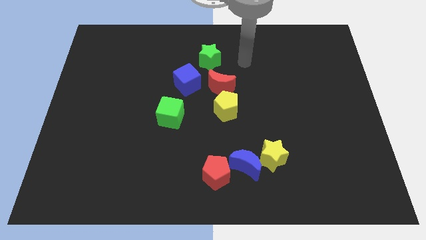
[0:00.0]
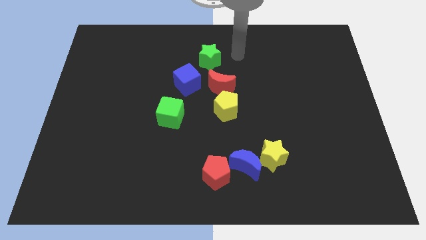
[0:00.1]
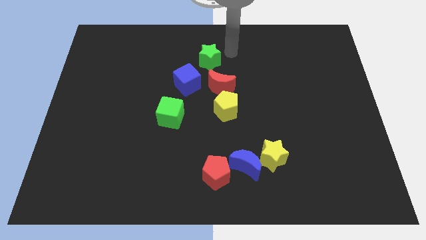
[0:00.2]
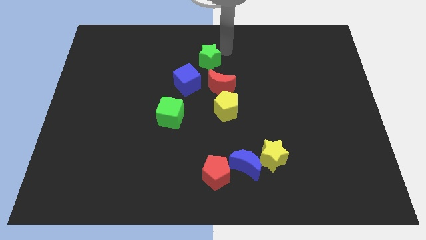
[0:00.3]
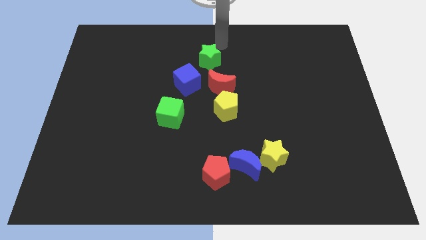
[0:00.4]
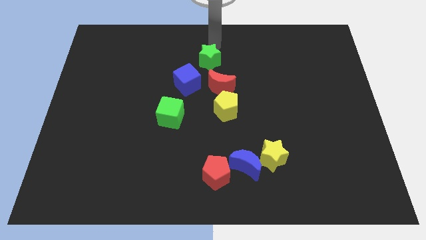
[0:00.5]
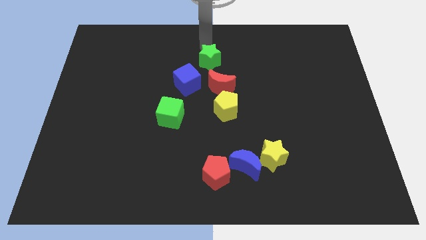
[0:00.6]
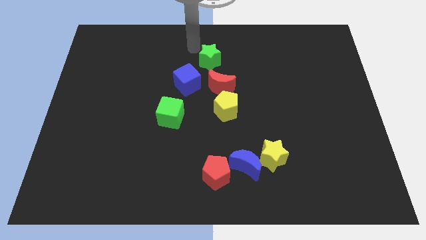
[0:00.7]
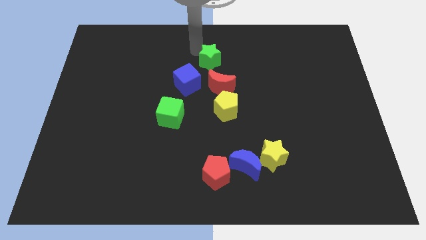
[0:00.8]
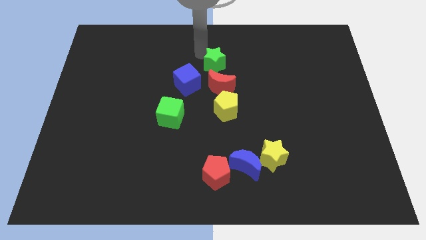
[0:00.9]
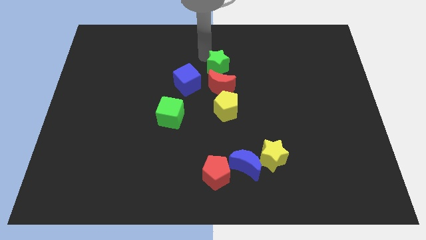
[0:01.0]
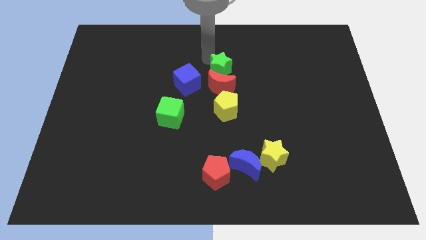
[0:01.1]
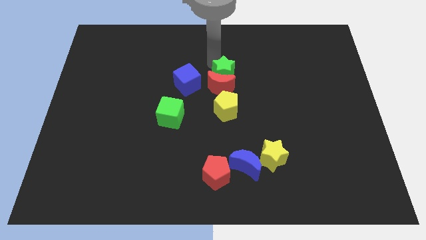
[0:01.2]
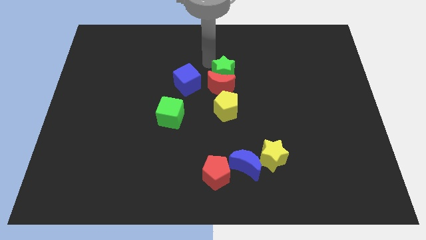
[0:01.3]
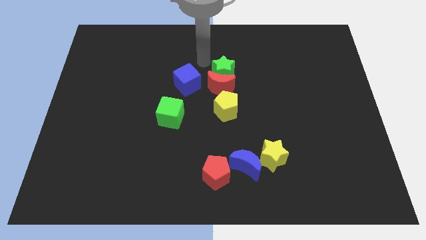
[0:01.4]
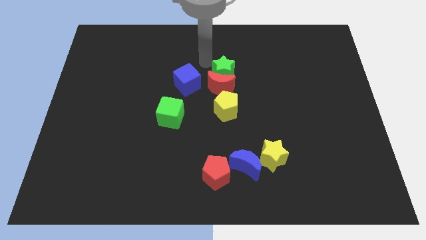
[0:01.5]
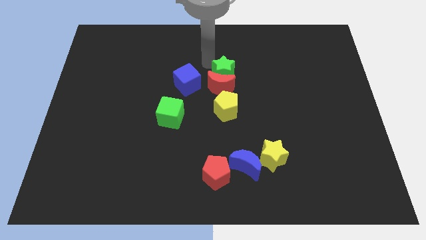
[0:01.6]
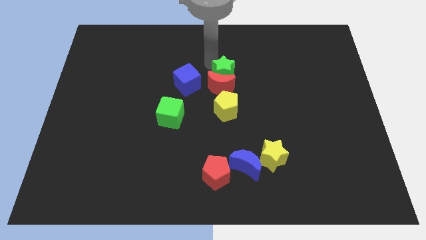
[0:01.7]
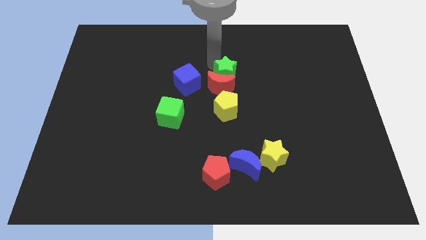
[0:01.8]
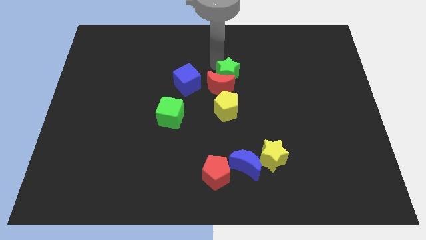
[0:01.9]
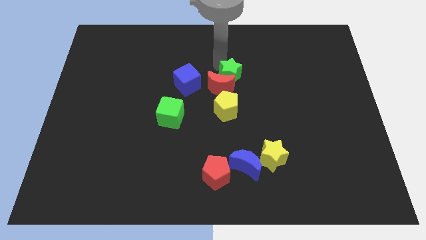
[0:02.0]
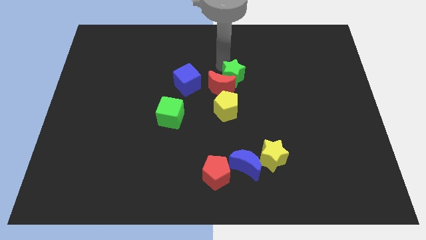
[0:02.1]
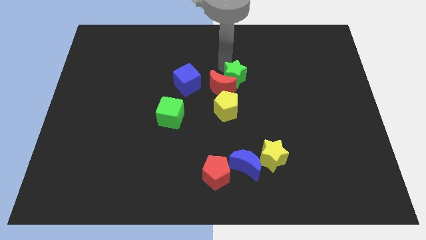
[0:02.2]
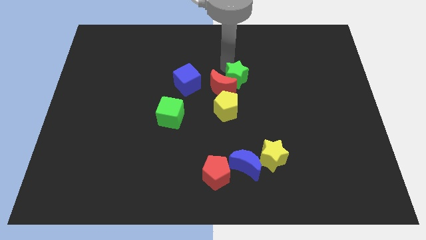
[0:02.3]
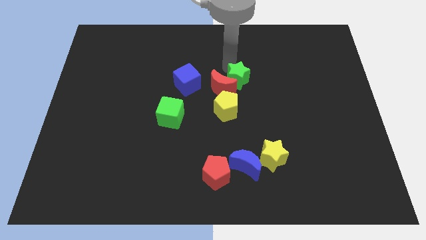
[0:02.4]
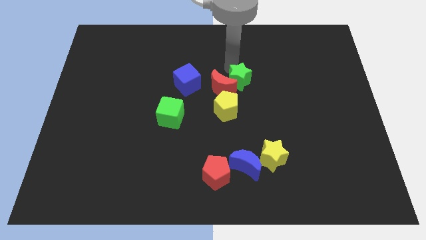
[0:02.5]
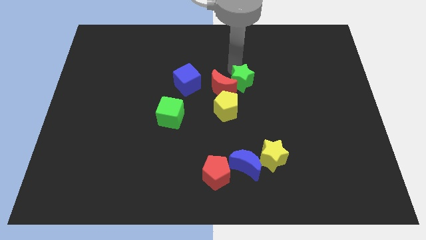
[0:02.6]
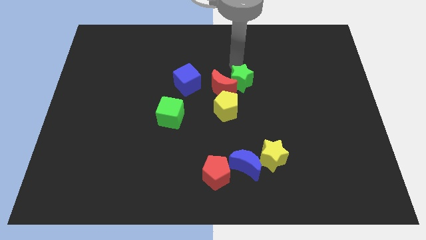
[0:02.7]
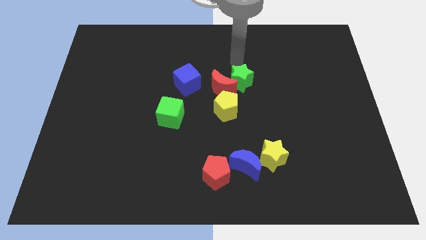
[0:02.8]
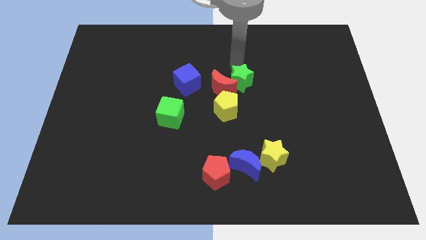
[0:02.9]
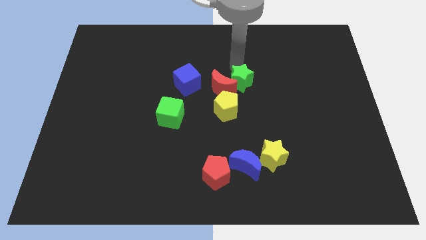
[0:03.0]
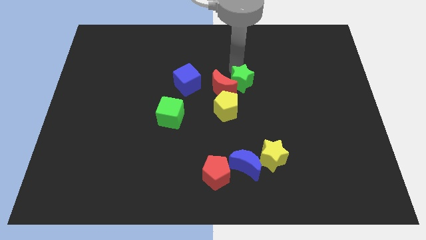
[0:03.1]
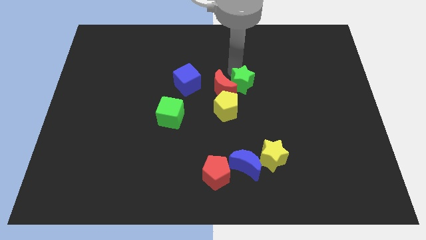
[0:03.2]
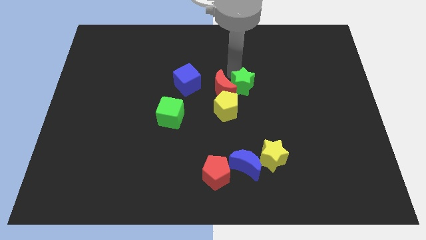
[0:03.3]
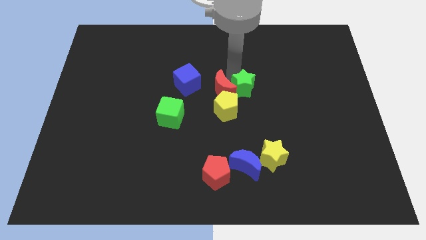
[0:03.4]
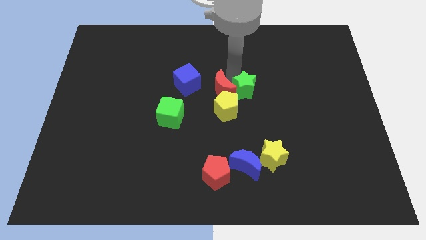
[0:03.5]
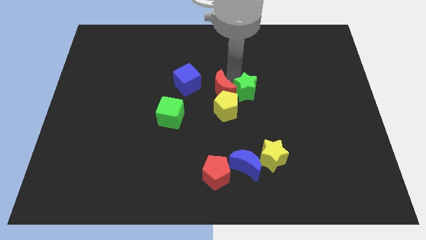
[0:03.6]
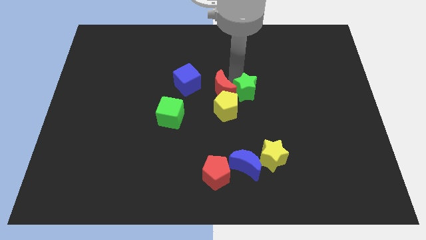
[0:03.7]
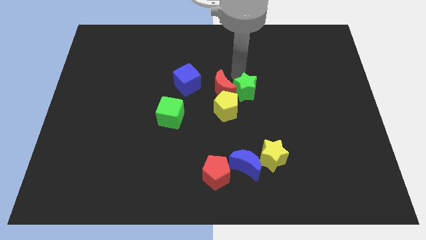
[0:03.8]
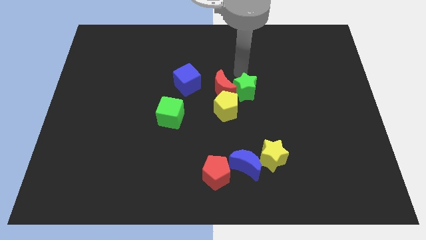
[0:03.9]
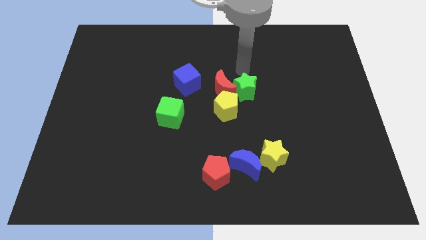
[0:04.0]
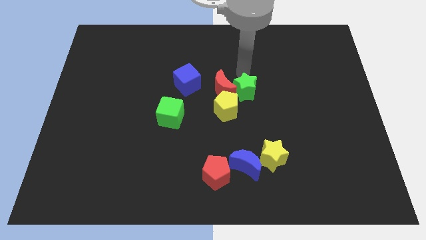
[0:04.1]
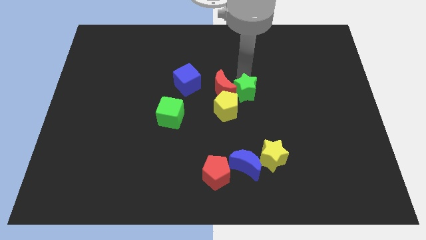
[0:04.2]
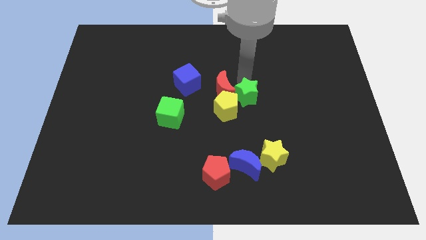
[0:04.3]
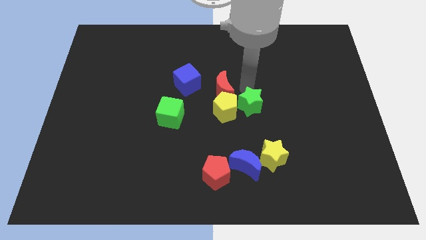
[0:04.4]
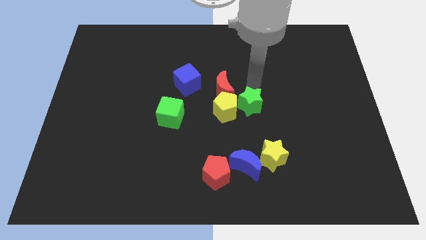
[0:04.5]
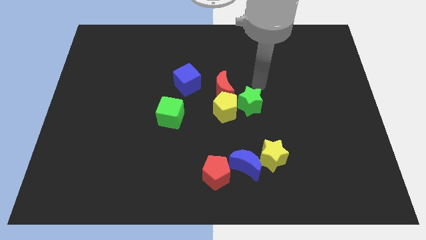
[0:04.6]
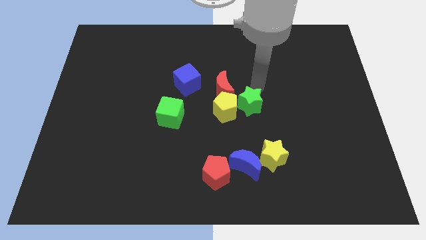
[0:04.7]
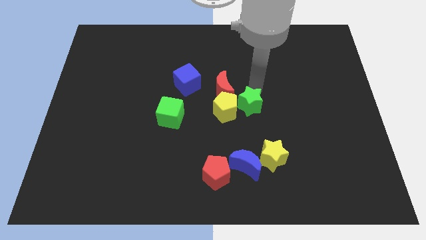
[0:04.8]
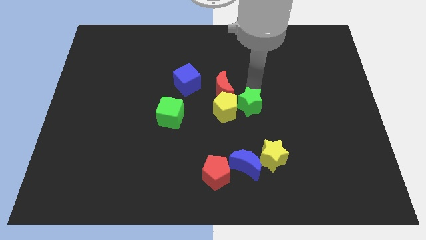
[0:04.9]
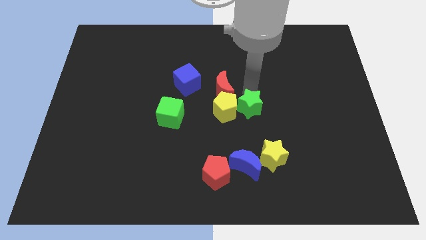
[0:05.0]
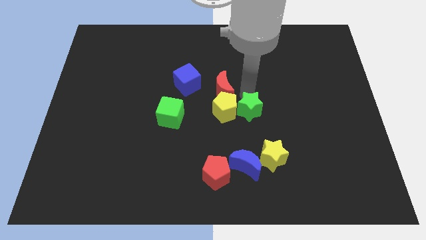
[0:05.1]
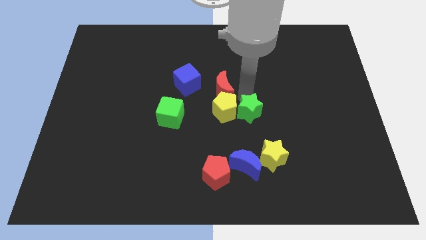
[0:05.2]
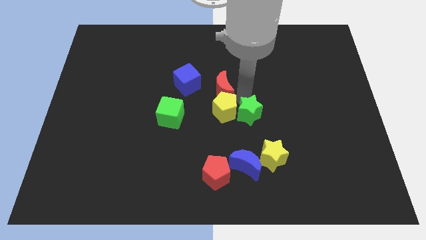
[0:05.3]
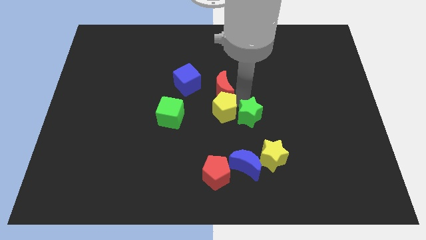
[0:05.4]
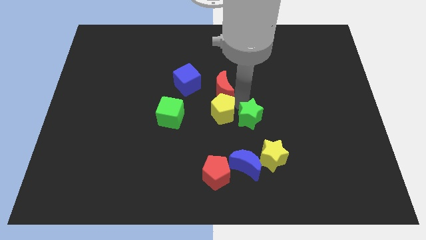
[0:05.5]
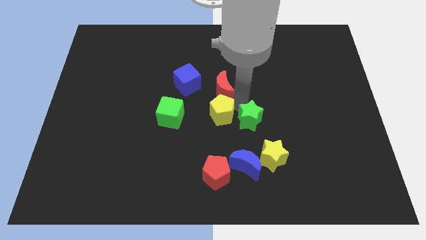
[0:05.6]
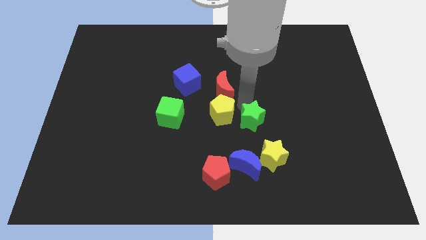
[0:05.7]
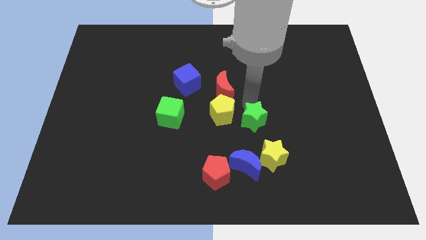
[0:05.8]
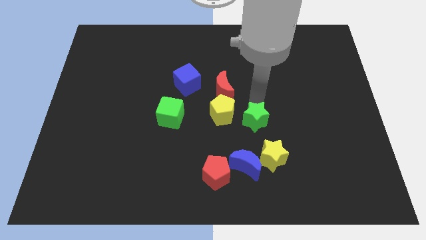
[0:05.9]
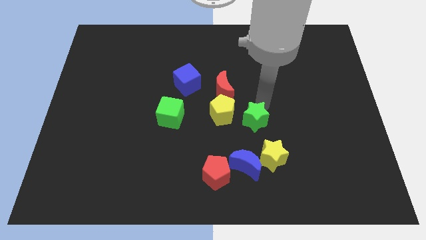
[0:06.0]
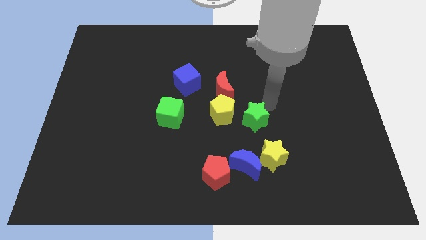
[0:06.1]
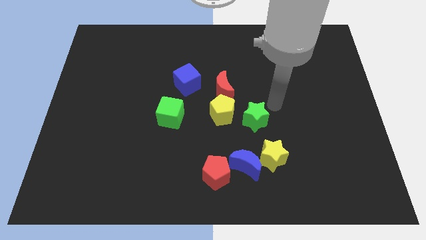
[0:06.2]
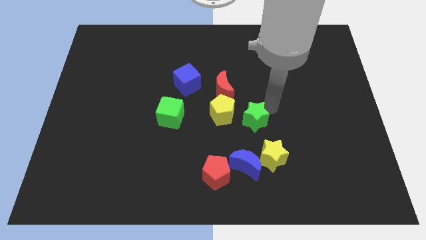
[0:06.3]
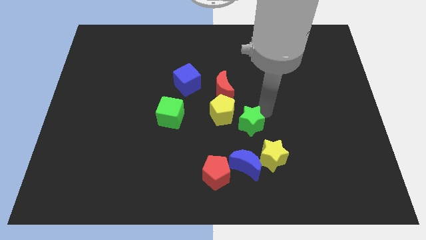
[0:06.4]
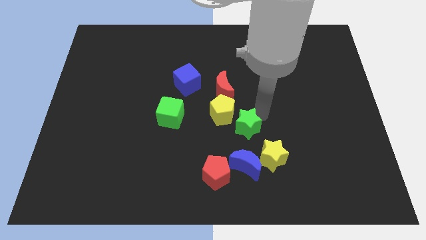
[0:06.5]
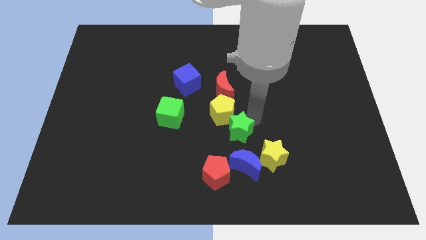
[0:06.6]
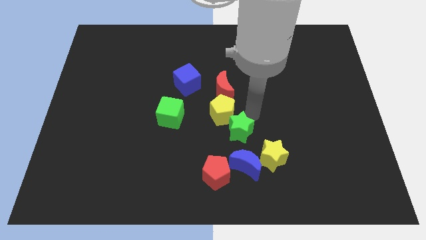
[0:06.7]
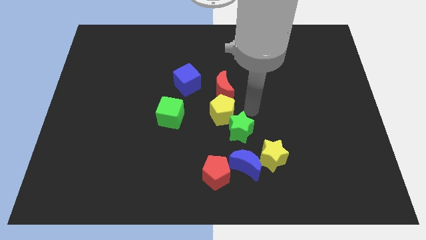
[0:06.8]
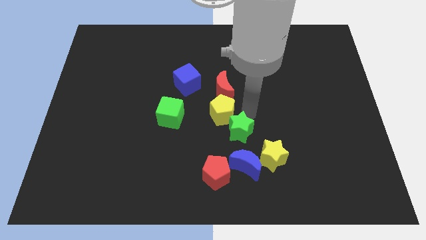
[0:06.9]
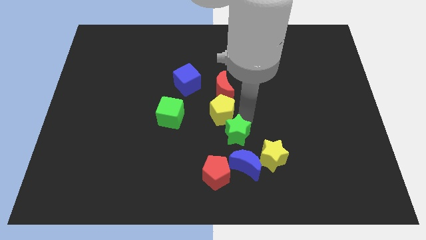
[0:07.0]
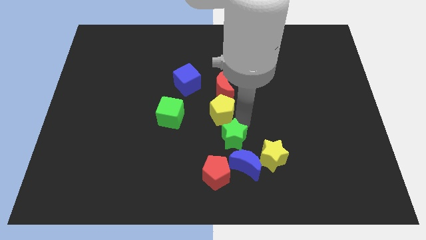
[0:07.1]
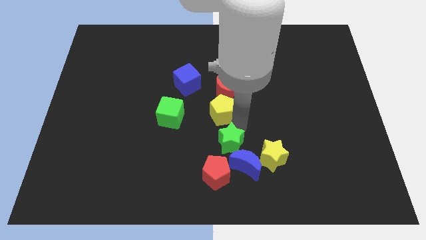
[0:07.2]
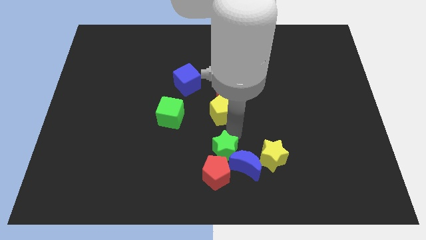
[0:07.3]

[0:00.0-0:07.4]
put the green star next to the red pentagon
